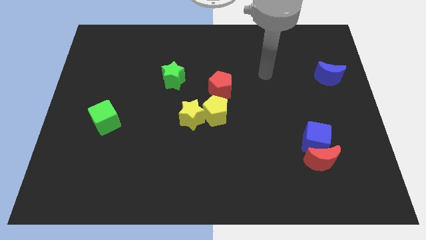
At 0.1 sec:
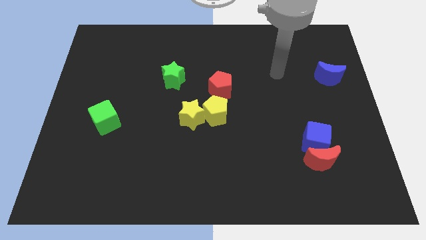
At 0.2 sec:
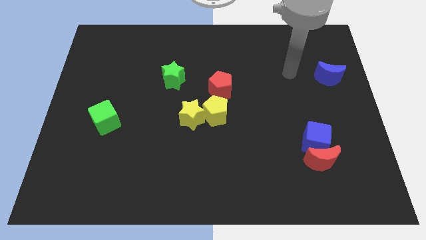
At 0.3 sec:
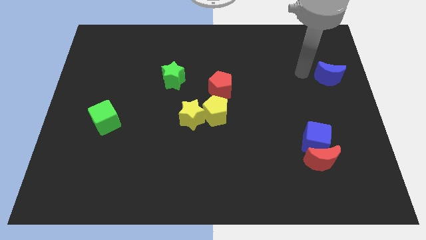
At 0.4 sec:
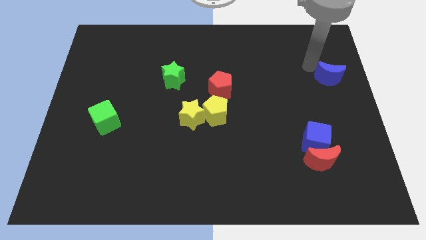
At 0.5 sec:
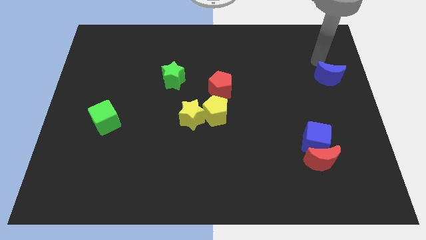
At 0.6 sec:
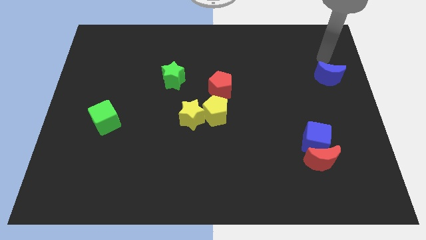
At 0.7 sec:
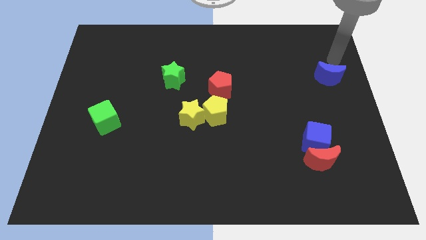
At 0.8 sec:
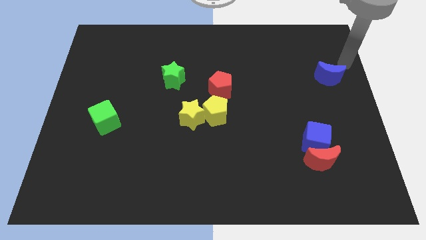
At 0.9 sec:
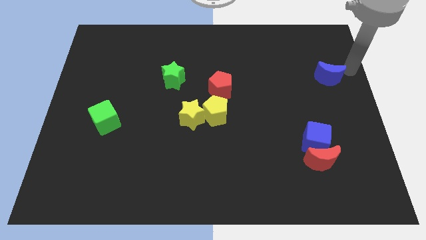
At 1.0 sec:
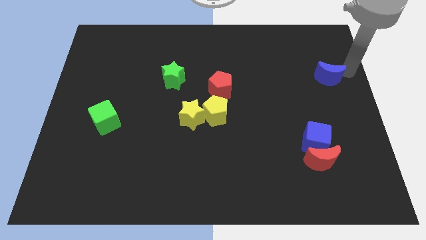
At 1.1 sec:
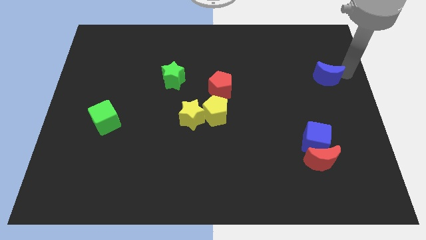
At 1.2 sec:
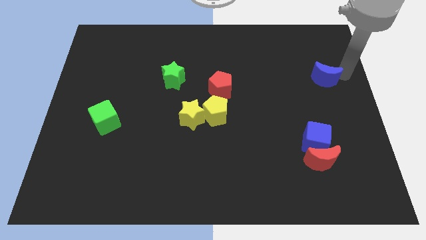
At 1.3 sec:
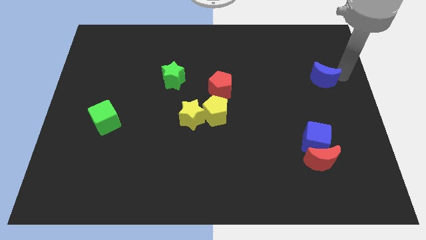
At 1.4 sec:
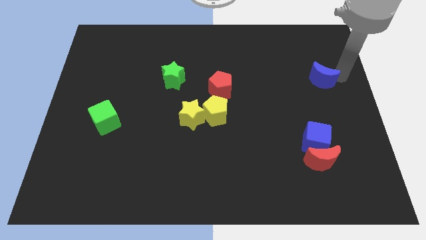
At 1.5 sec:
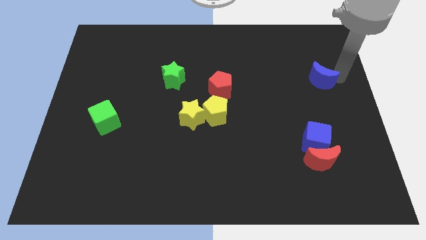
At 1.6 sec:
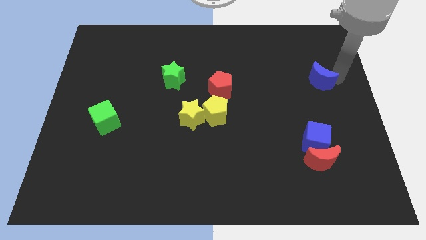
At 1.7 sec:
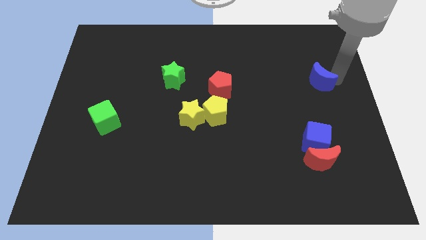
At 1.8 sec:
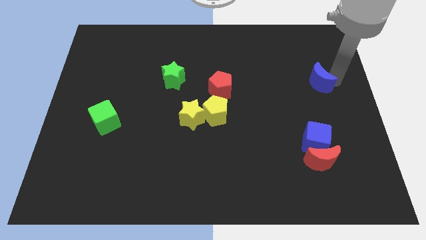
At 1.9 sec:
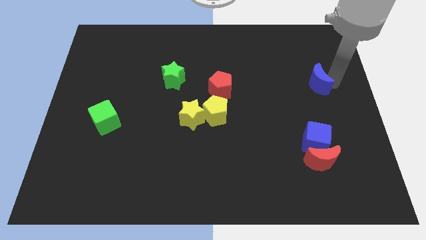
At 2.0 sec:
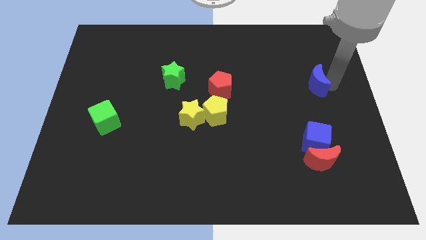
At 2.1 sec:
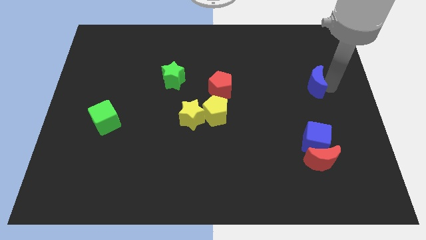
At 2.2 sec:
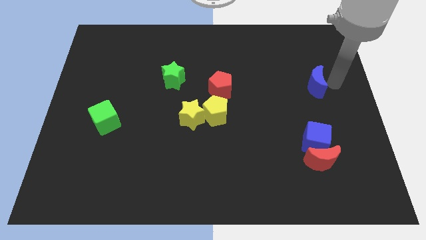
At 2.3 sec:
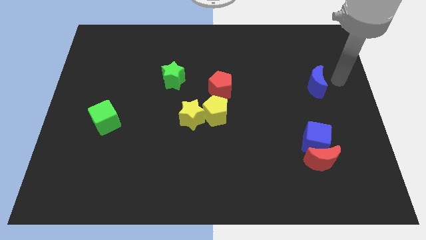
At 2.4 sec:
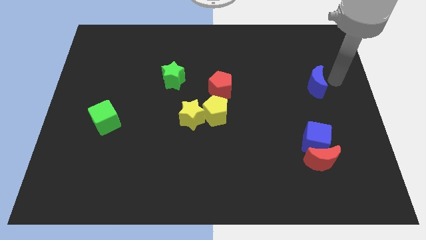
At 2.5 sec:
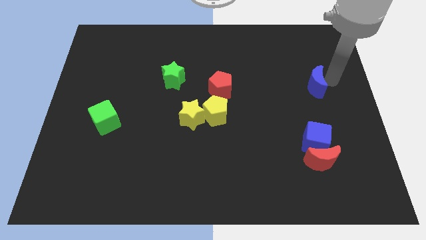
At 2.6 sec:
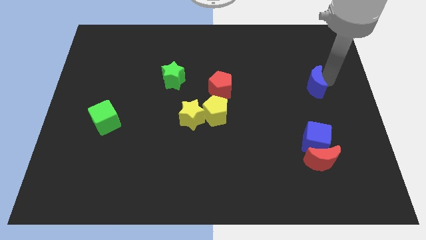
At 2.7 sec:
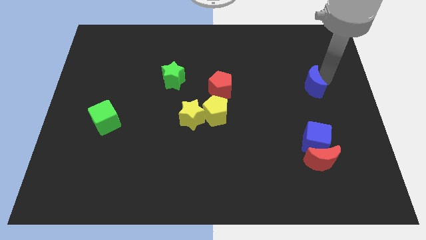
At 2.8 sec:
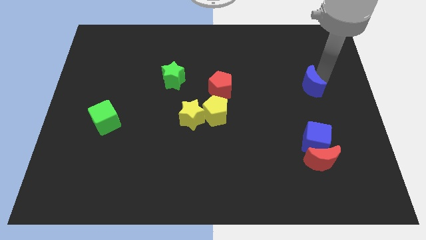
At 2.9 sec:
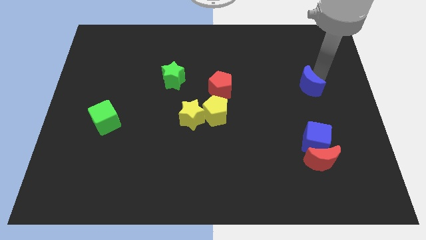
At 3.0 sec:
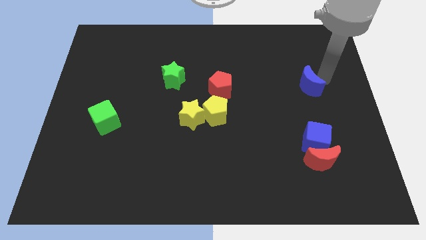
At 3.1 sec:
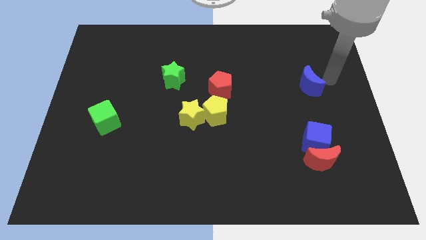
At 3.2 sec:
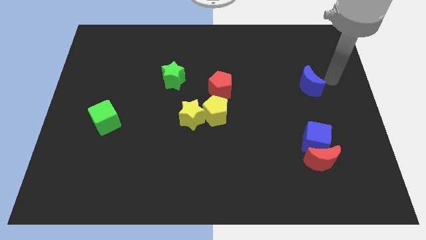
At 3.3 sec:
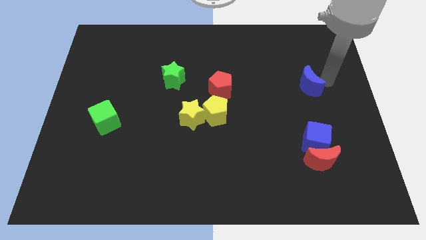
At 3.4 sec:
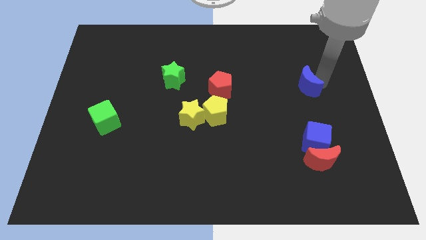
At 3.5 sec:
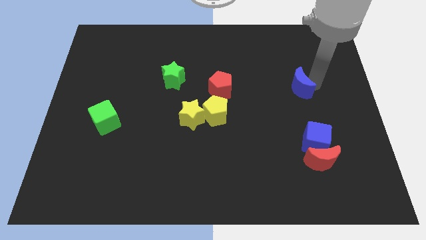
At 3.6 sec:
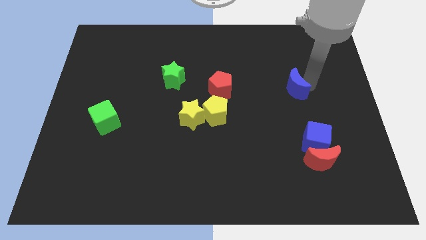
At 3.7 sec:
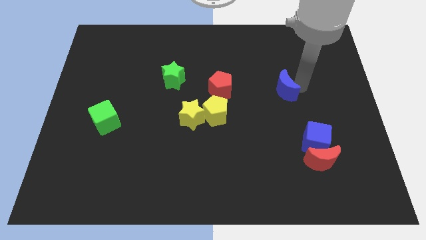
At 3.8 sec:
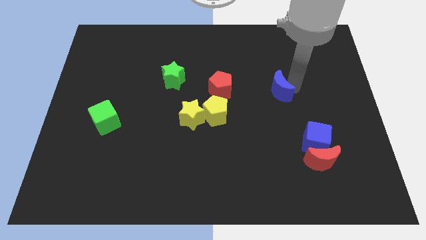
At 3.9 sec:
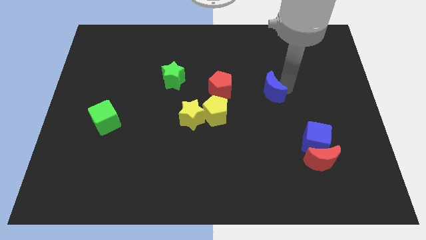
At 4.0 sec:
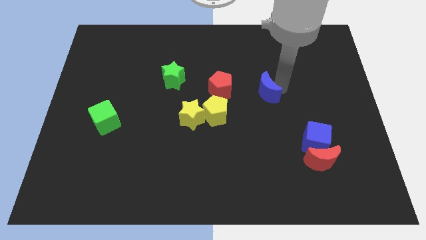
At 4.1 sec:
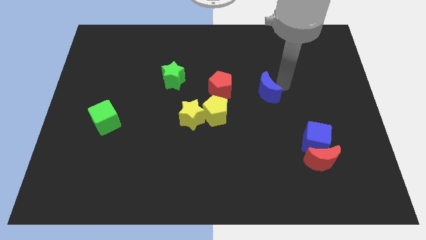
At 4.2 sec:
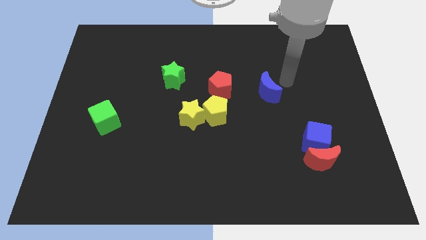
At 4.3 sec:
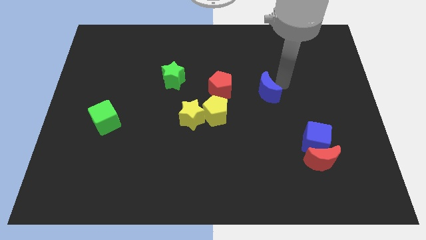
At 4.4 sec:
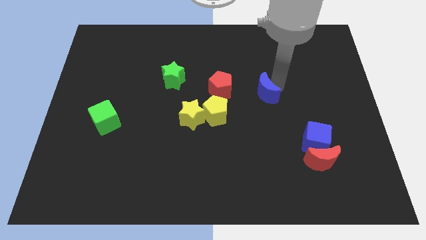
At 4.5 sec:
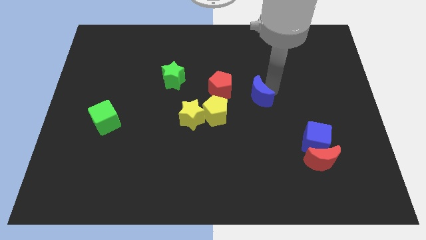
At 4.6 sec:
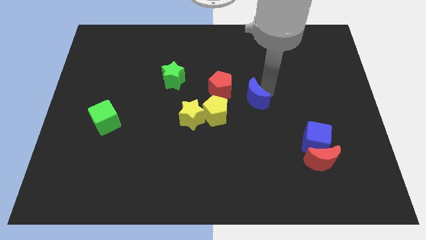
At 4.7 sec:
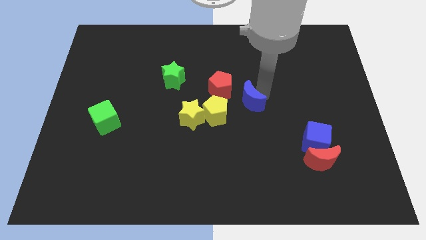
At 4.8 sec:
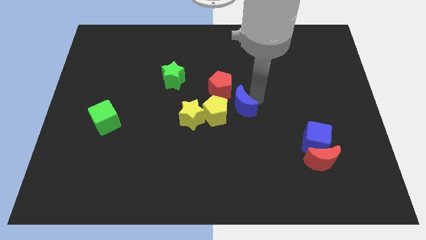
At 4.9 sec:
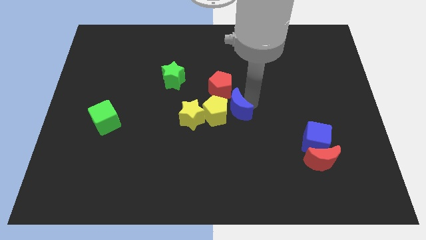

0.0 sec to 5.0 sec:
push the blue moon to the yellow pentagon

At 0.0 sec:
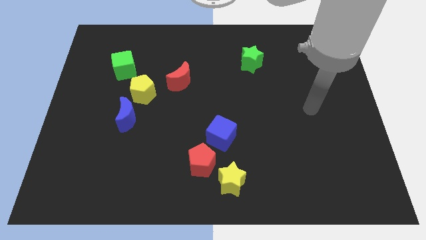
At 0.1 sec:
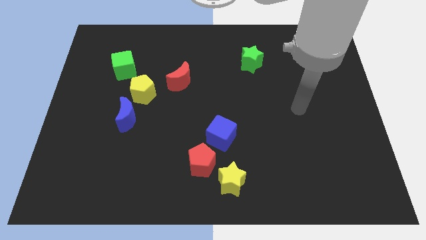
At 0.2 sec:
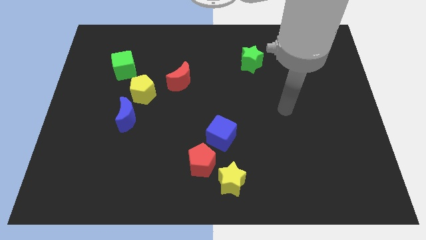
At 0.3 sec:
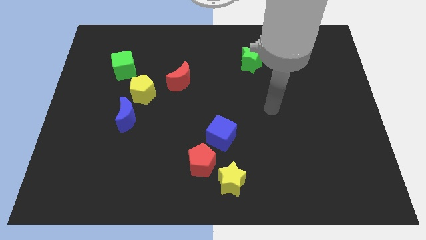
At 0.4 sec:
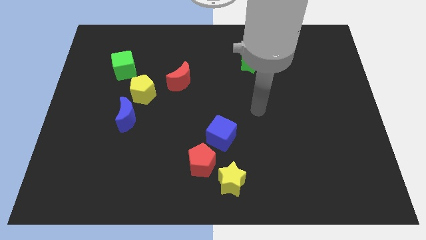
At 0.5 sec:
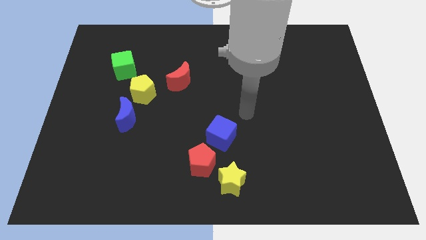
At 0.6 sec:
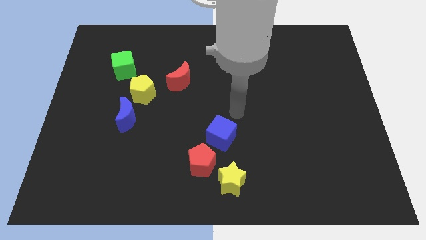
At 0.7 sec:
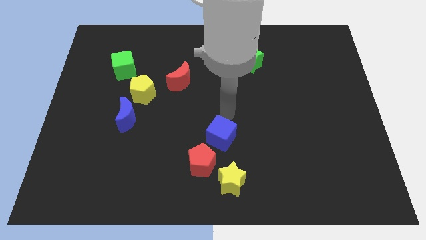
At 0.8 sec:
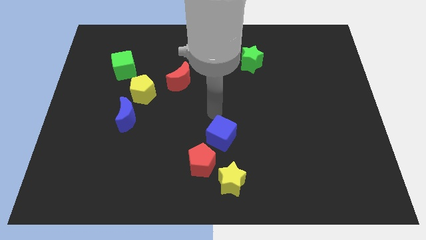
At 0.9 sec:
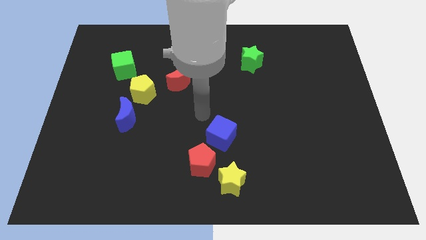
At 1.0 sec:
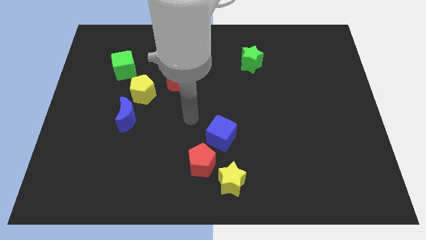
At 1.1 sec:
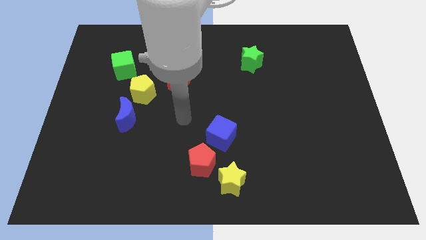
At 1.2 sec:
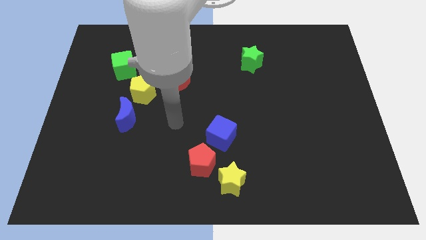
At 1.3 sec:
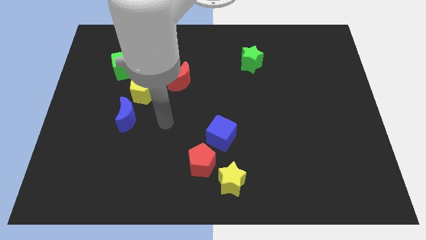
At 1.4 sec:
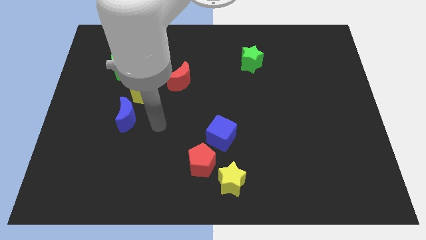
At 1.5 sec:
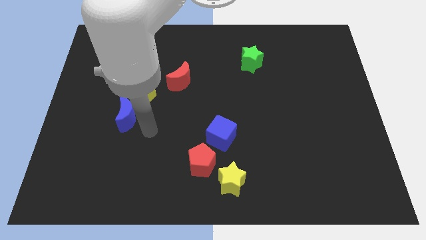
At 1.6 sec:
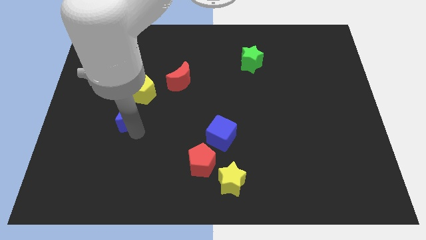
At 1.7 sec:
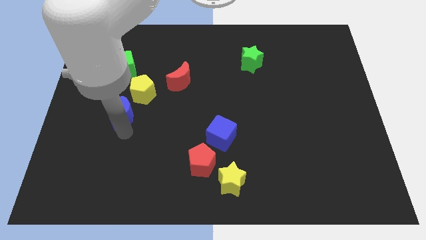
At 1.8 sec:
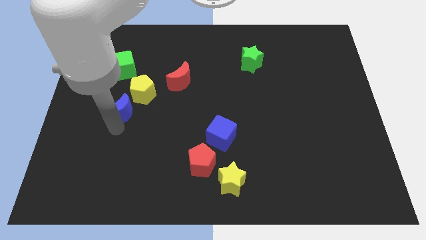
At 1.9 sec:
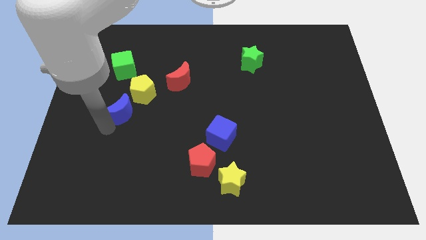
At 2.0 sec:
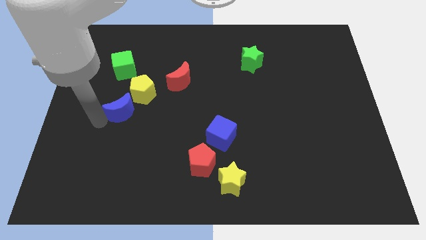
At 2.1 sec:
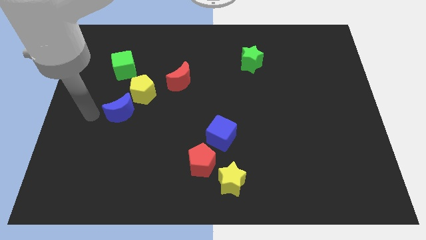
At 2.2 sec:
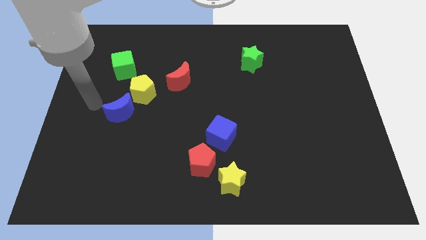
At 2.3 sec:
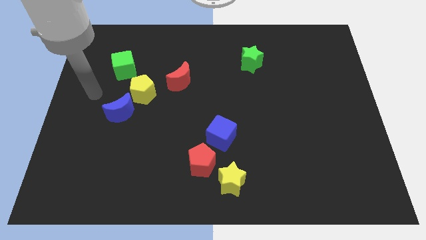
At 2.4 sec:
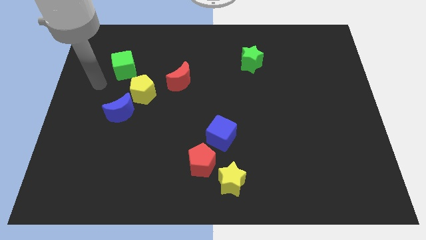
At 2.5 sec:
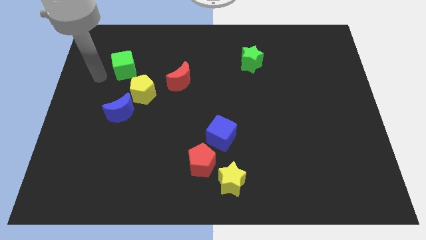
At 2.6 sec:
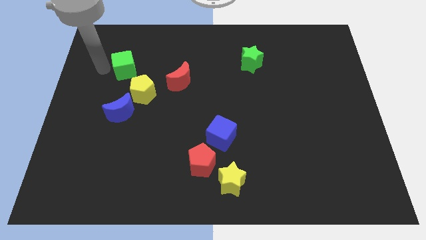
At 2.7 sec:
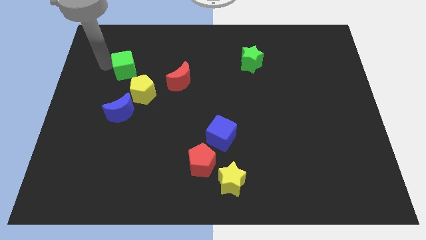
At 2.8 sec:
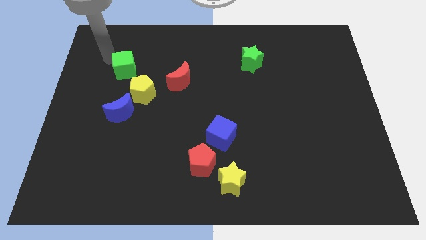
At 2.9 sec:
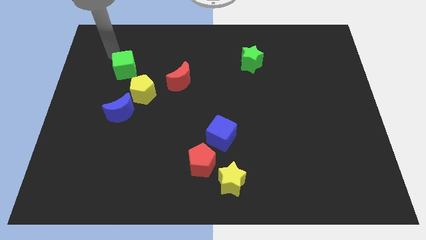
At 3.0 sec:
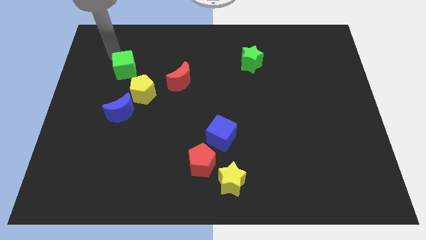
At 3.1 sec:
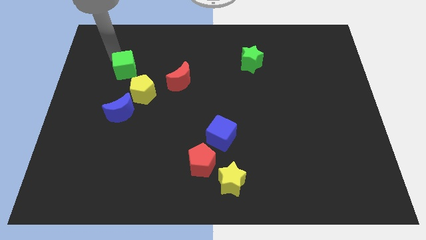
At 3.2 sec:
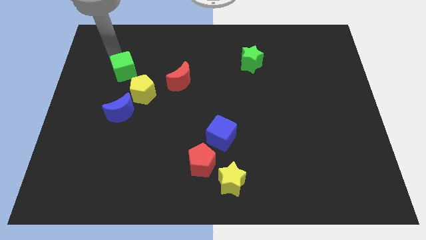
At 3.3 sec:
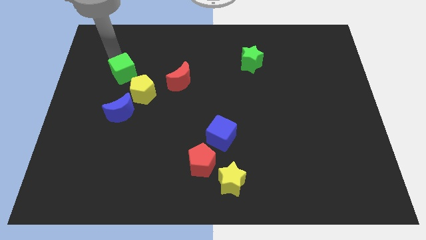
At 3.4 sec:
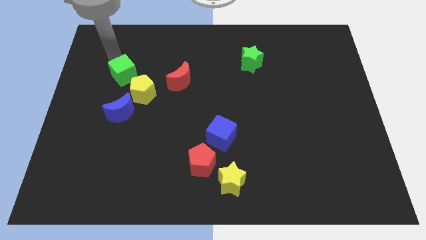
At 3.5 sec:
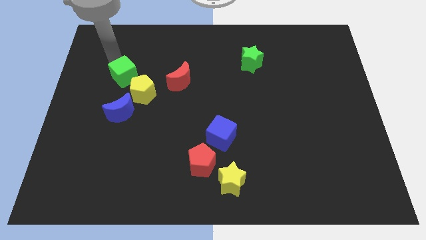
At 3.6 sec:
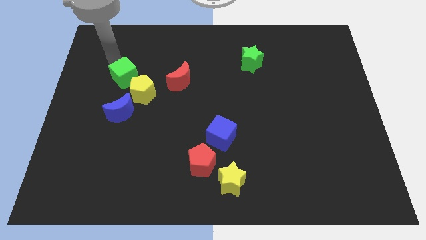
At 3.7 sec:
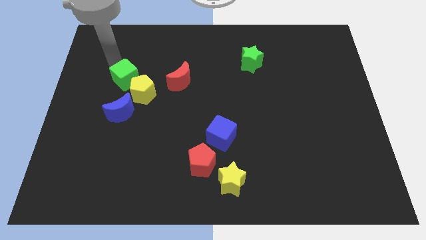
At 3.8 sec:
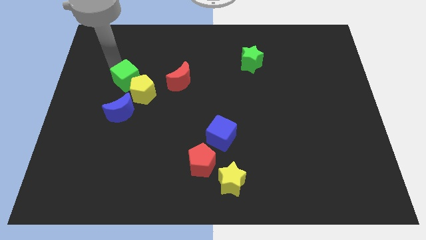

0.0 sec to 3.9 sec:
push the green cube to the yellow pentagon
